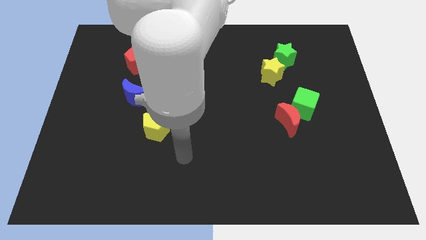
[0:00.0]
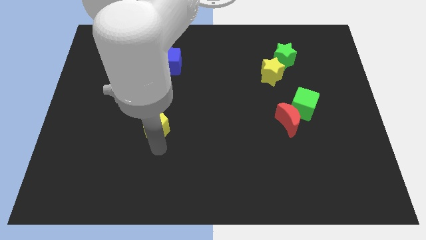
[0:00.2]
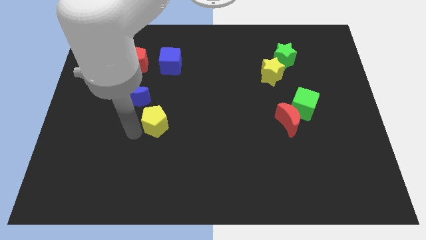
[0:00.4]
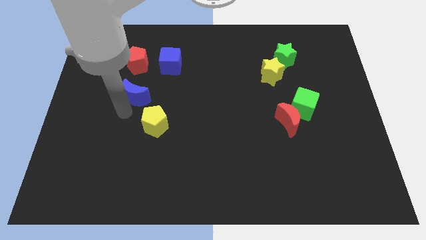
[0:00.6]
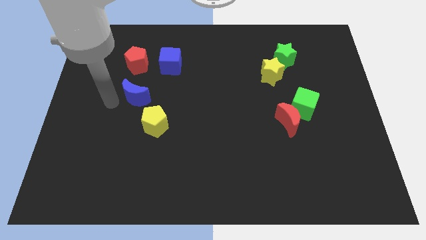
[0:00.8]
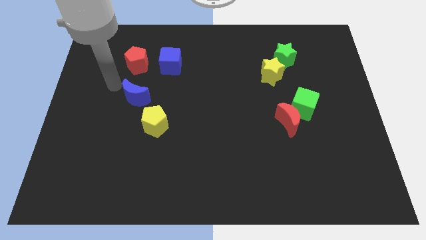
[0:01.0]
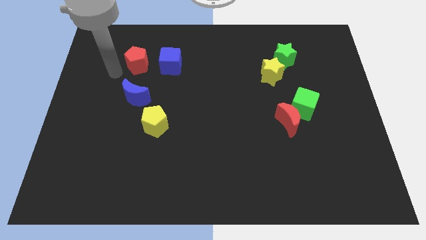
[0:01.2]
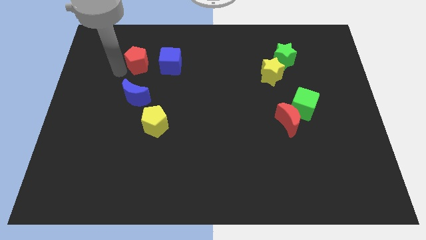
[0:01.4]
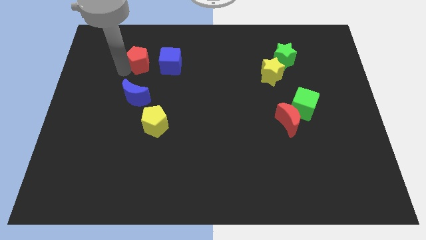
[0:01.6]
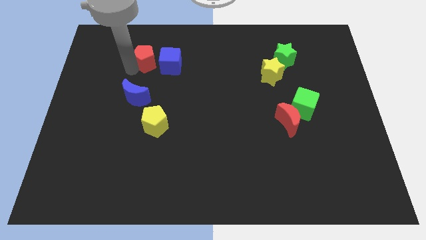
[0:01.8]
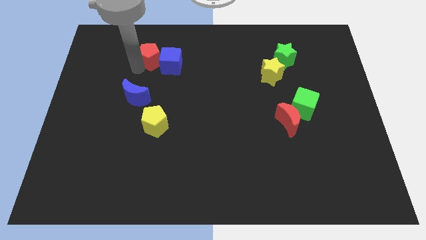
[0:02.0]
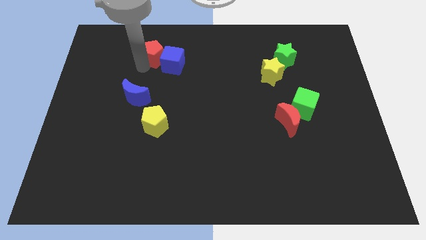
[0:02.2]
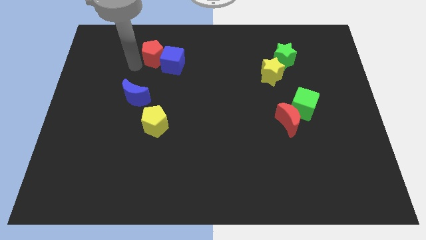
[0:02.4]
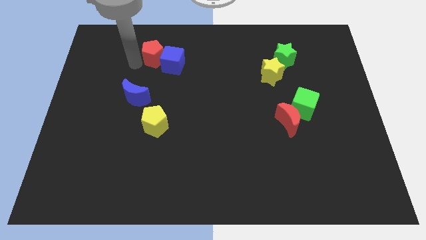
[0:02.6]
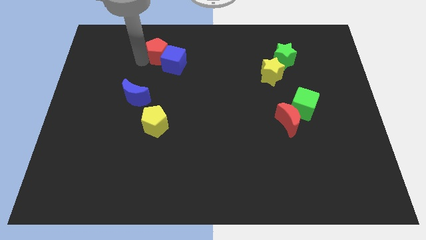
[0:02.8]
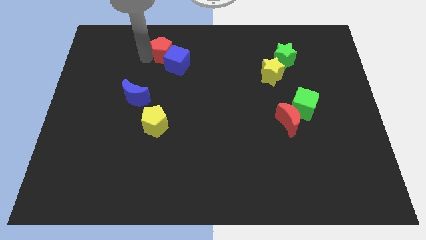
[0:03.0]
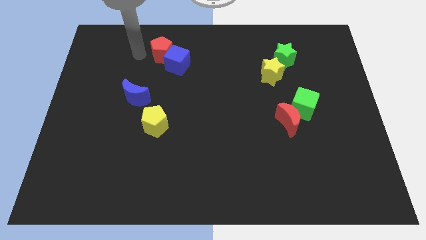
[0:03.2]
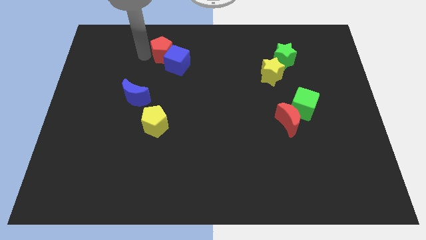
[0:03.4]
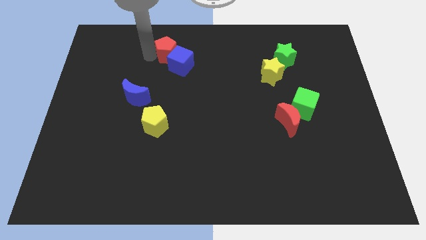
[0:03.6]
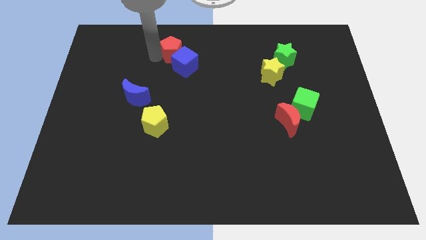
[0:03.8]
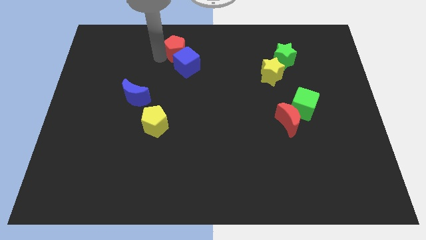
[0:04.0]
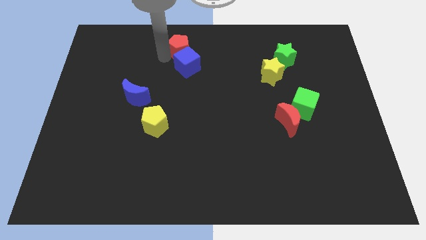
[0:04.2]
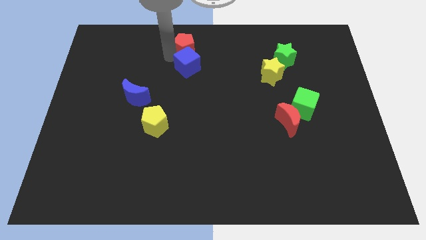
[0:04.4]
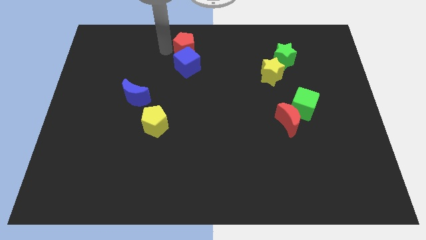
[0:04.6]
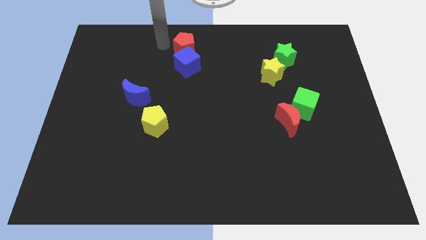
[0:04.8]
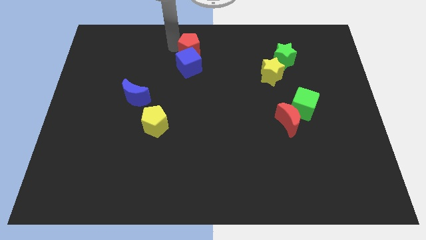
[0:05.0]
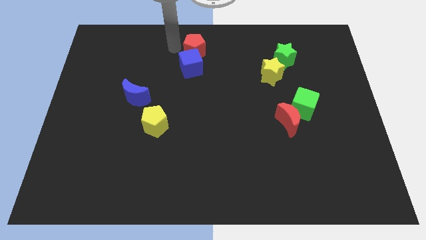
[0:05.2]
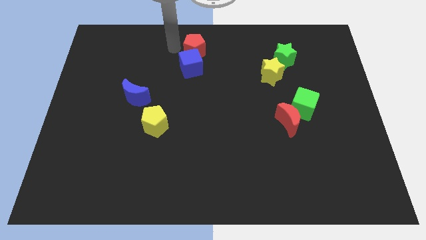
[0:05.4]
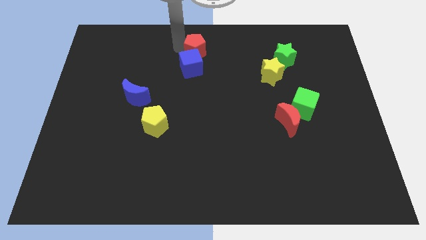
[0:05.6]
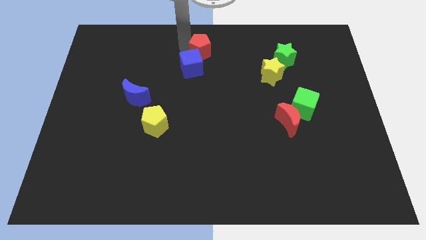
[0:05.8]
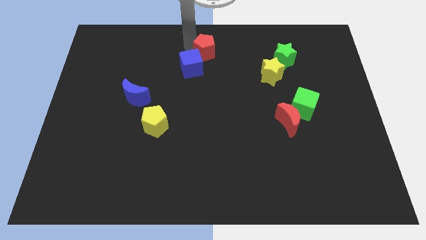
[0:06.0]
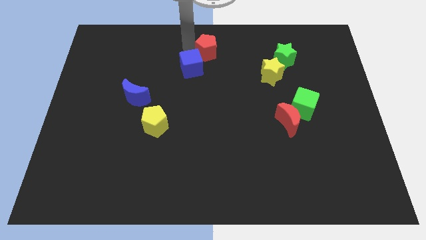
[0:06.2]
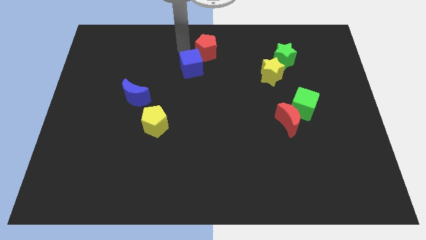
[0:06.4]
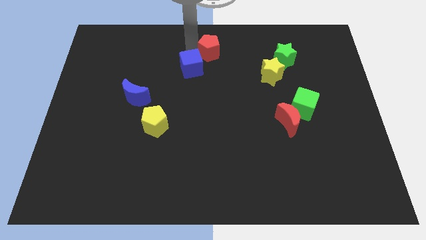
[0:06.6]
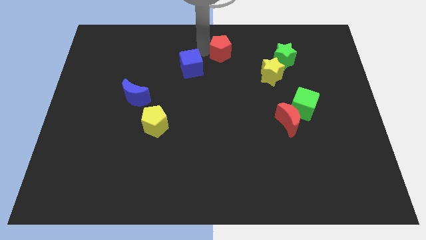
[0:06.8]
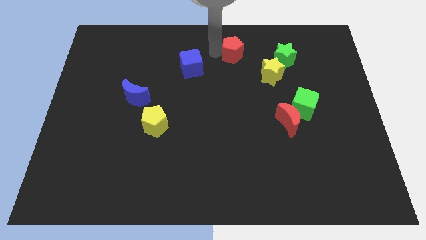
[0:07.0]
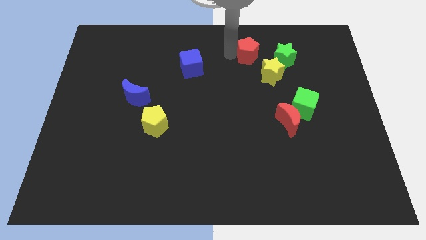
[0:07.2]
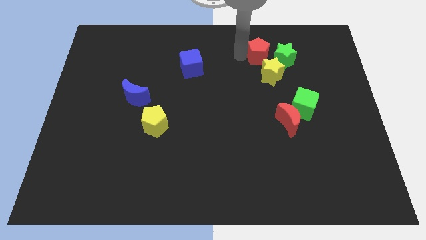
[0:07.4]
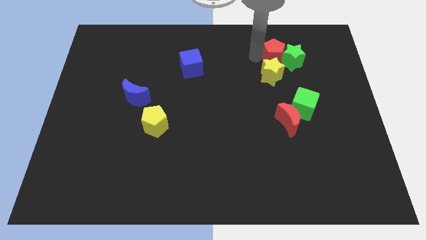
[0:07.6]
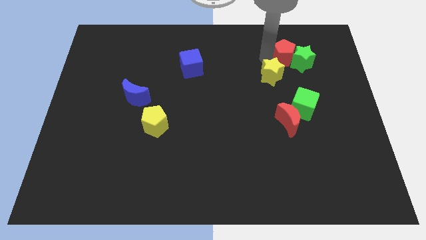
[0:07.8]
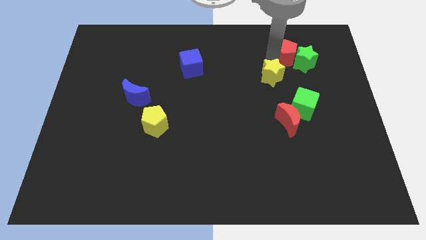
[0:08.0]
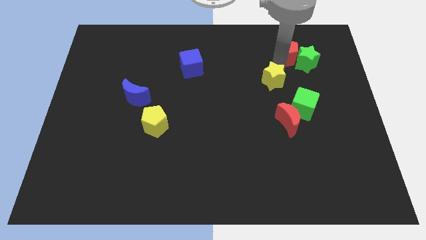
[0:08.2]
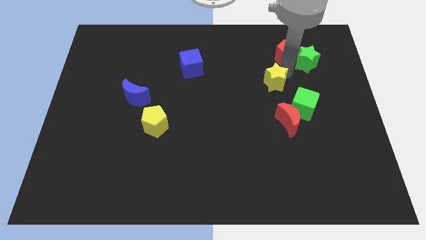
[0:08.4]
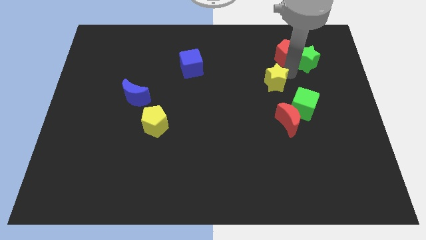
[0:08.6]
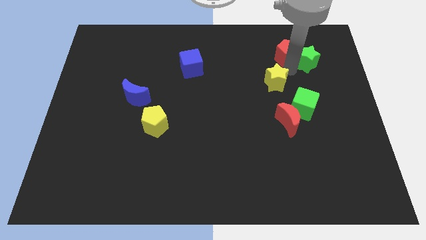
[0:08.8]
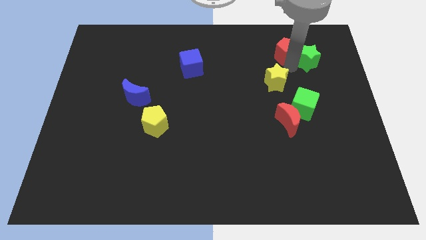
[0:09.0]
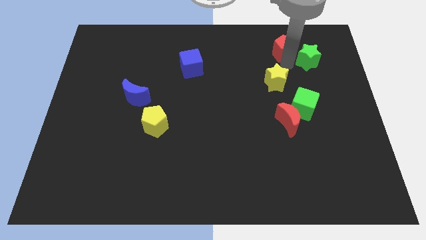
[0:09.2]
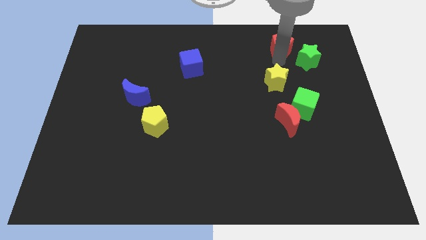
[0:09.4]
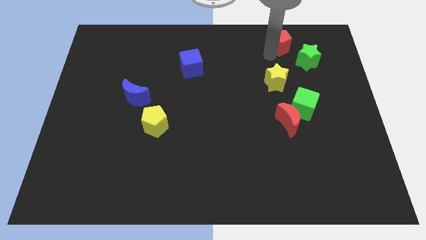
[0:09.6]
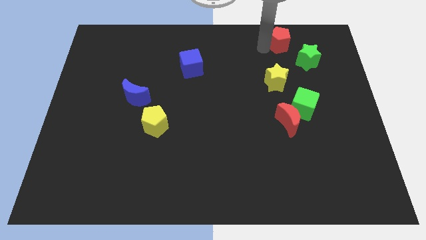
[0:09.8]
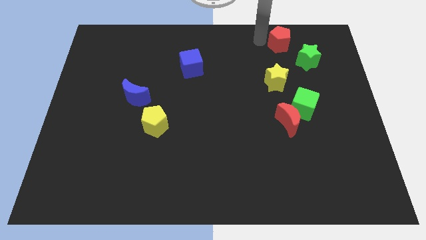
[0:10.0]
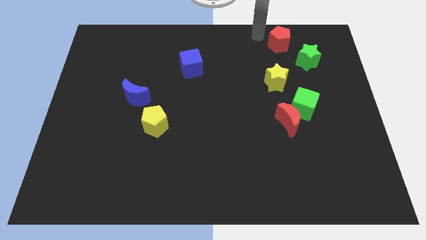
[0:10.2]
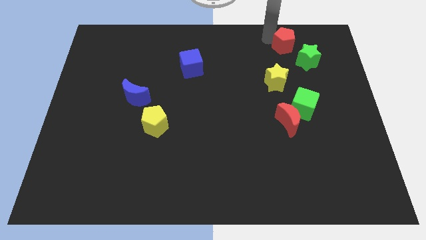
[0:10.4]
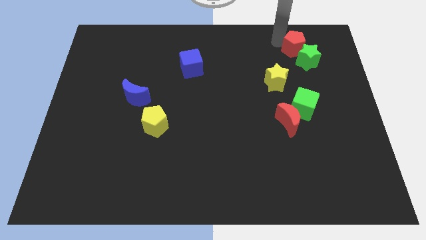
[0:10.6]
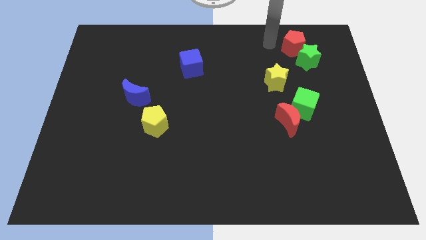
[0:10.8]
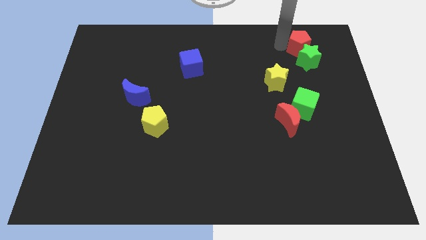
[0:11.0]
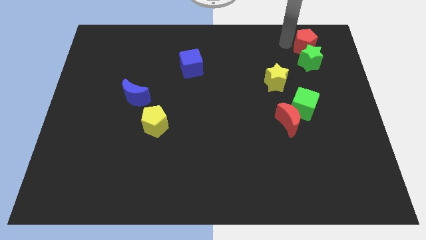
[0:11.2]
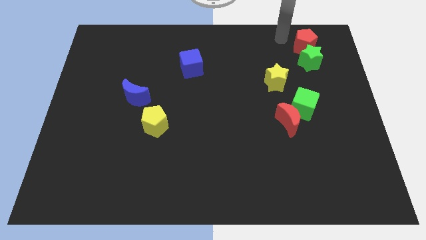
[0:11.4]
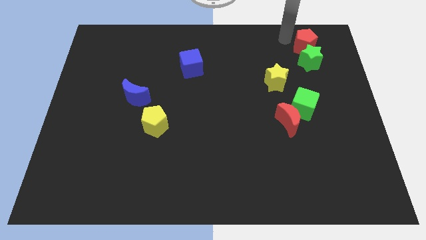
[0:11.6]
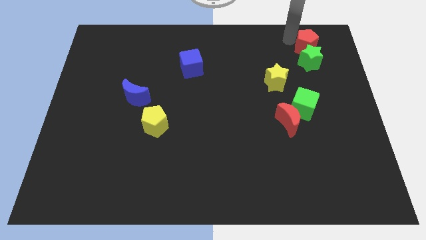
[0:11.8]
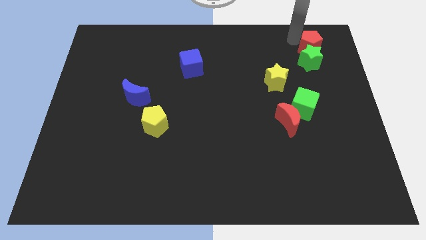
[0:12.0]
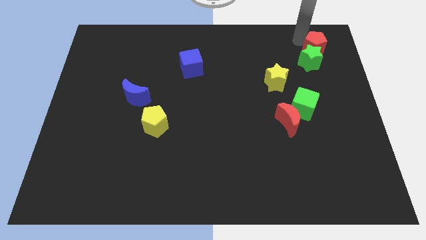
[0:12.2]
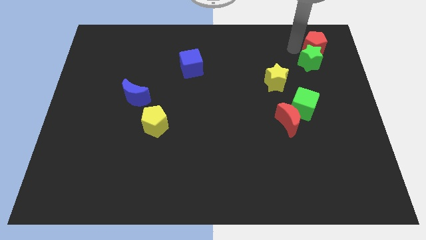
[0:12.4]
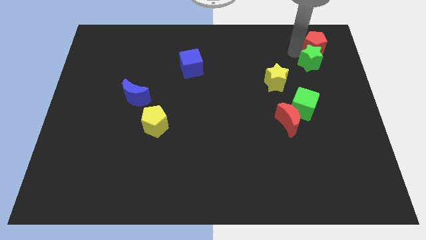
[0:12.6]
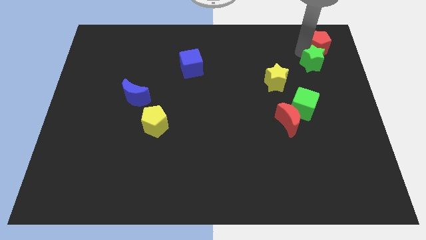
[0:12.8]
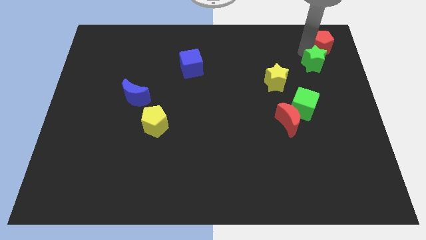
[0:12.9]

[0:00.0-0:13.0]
push the red pentagon to the top right corner
